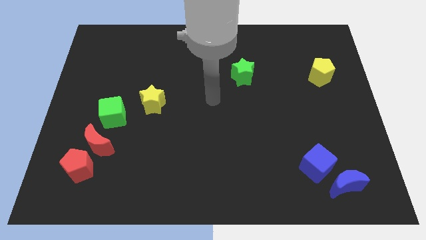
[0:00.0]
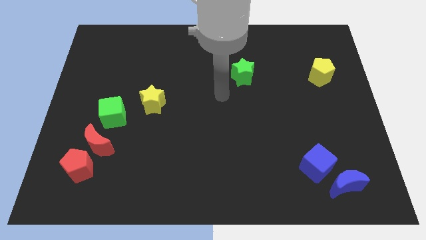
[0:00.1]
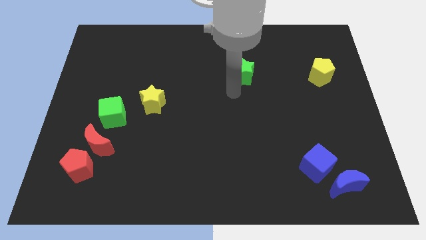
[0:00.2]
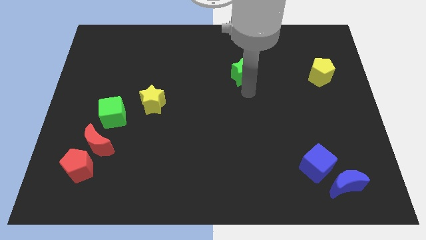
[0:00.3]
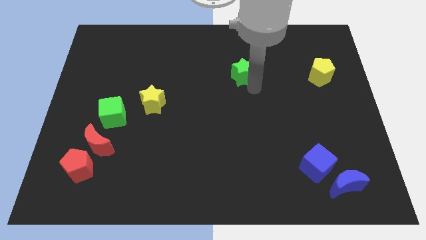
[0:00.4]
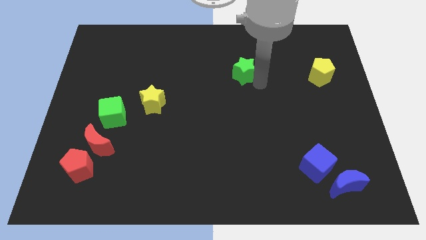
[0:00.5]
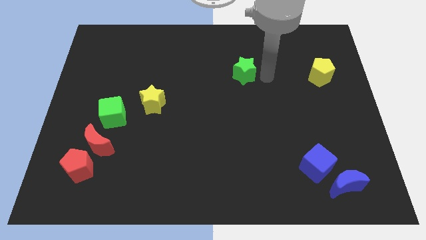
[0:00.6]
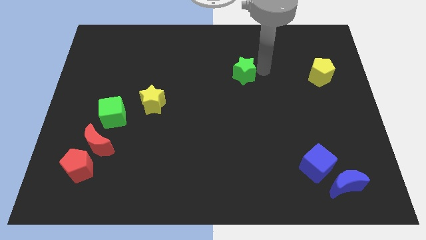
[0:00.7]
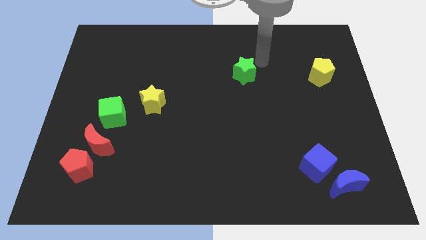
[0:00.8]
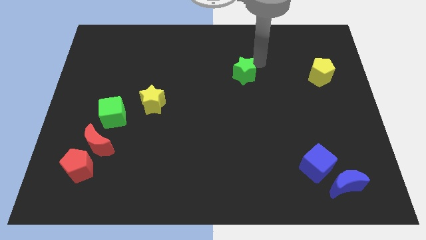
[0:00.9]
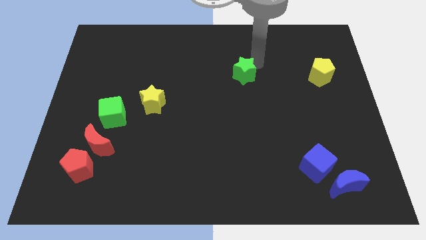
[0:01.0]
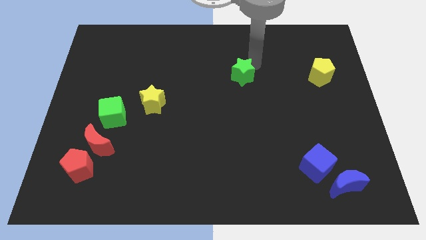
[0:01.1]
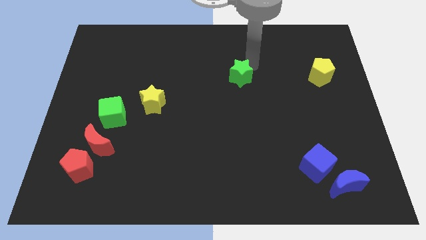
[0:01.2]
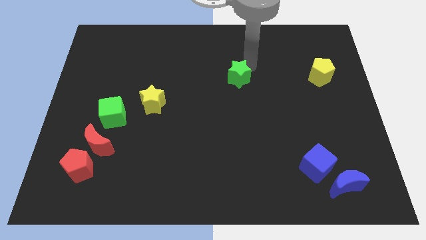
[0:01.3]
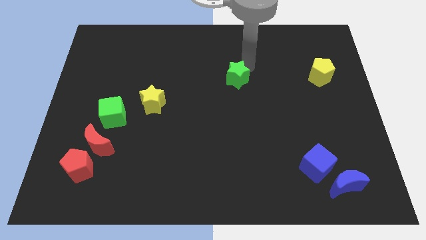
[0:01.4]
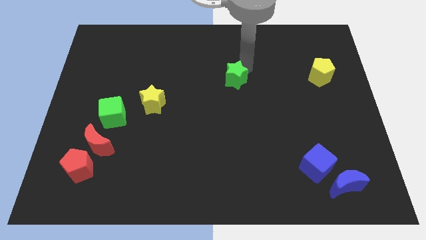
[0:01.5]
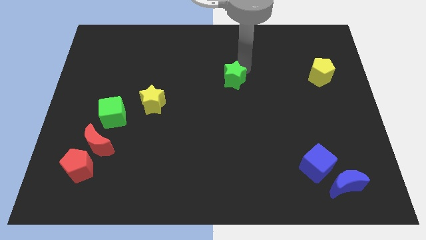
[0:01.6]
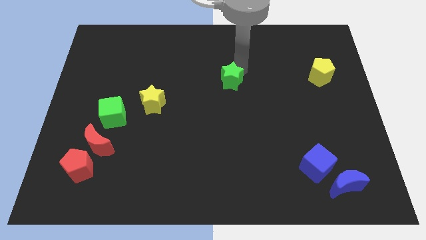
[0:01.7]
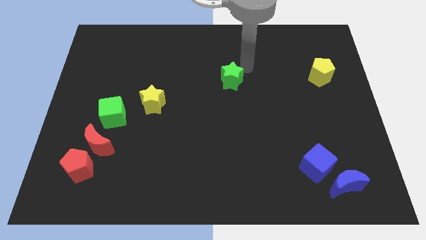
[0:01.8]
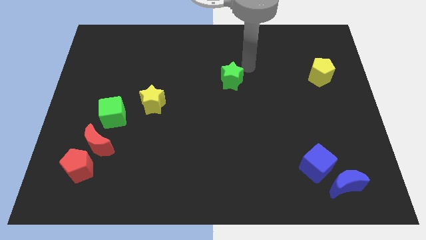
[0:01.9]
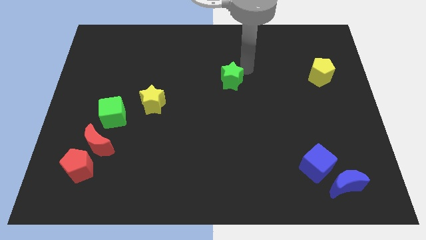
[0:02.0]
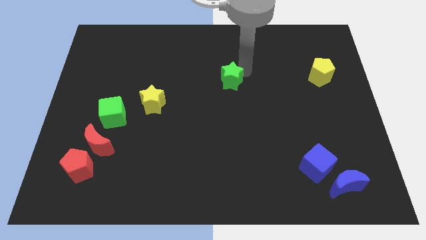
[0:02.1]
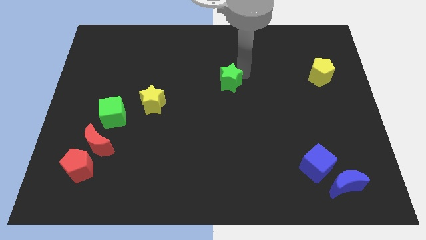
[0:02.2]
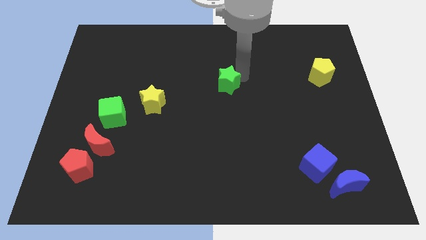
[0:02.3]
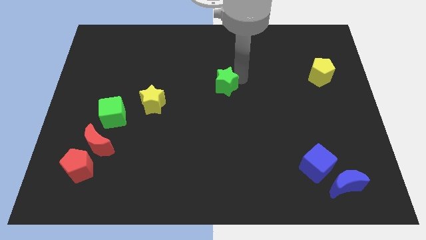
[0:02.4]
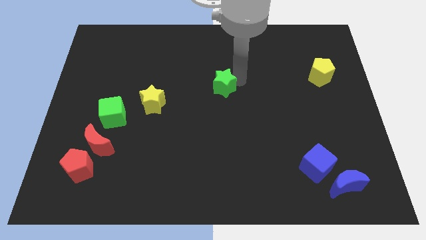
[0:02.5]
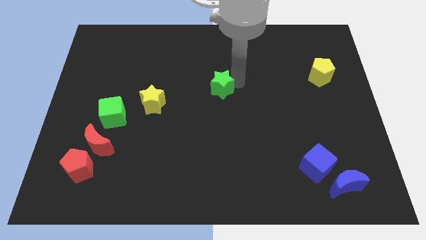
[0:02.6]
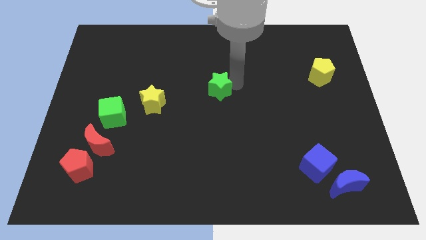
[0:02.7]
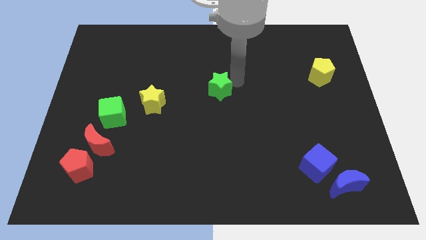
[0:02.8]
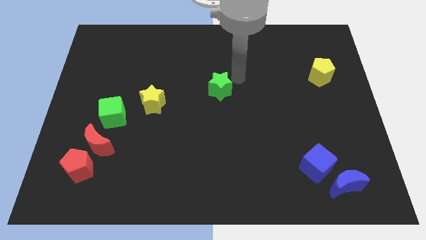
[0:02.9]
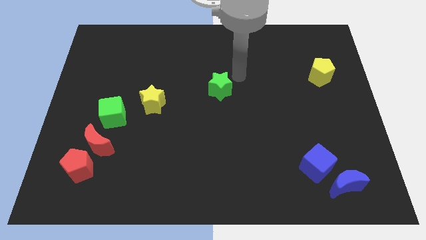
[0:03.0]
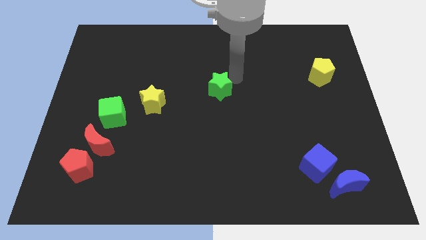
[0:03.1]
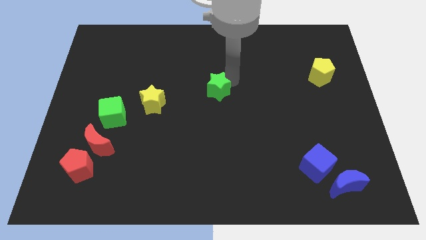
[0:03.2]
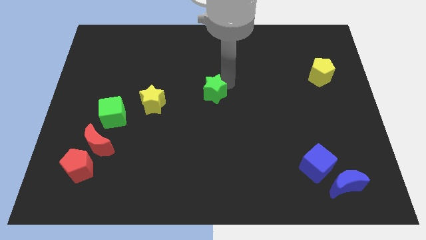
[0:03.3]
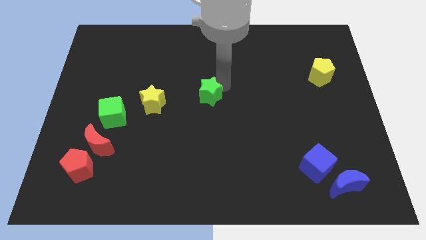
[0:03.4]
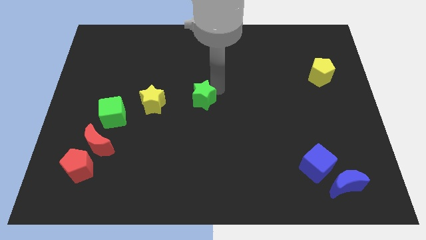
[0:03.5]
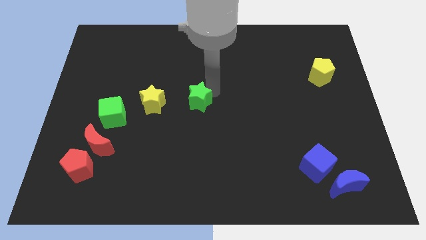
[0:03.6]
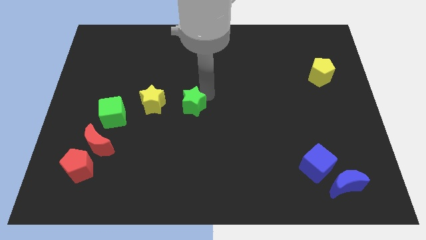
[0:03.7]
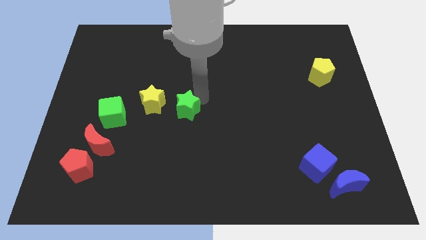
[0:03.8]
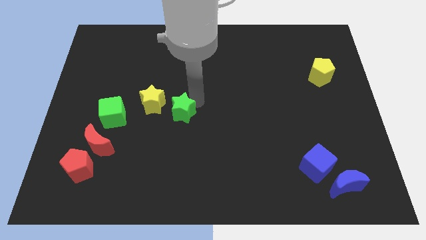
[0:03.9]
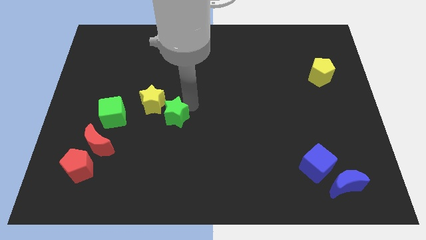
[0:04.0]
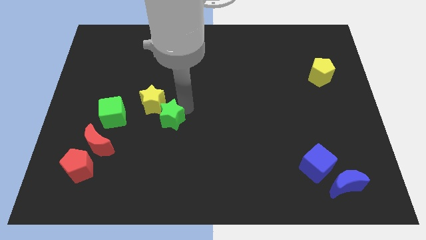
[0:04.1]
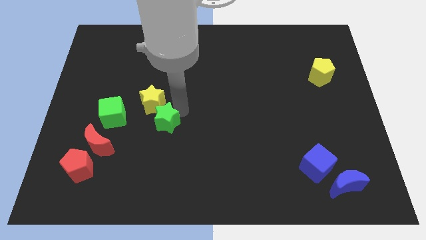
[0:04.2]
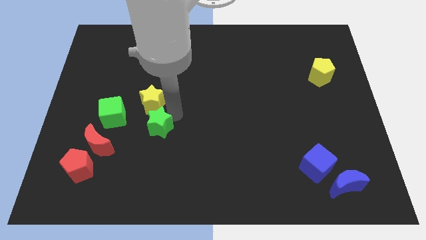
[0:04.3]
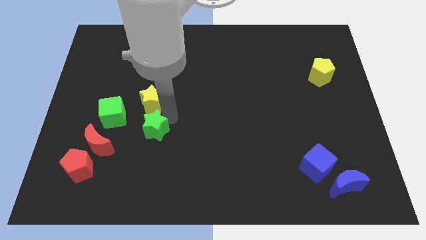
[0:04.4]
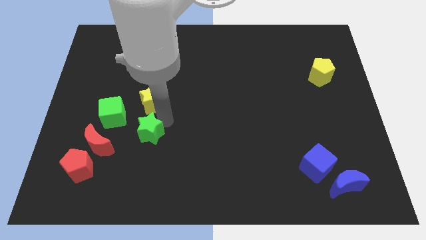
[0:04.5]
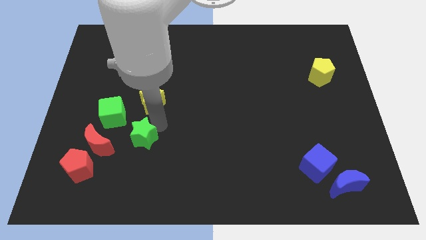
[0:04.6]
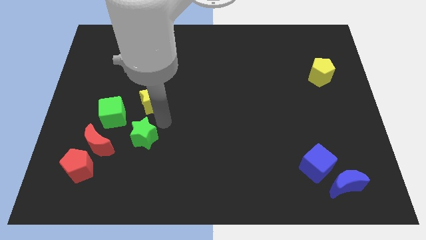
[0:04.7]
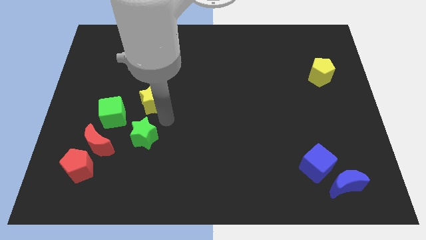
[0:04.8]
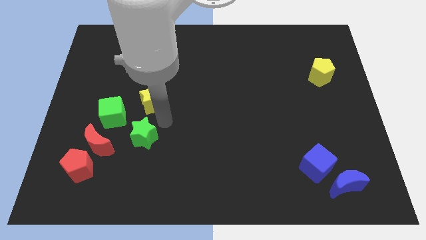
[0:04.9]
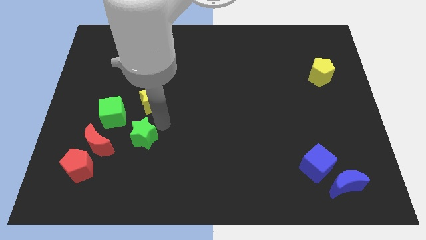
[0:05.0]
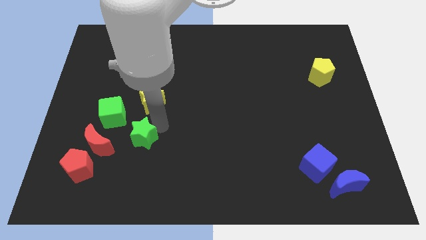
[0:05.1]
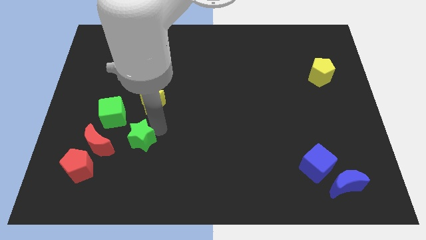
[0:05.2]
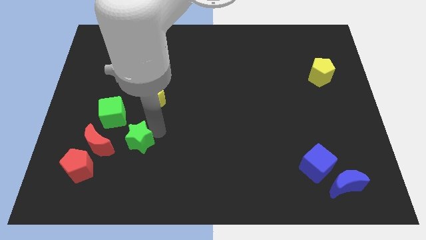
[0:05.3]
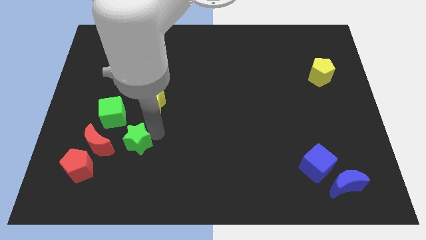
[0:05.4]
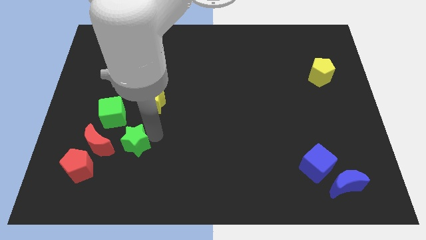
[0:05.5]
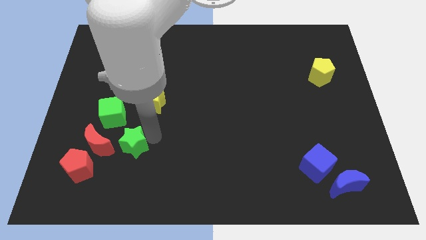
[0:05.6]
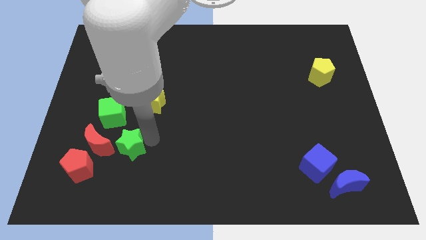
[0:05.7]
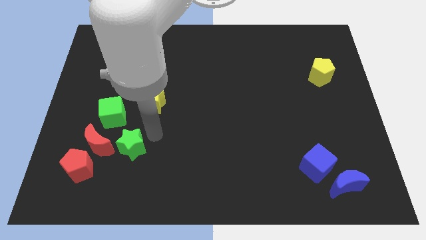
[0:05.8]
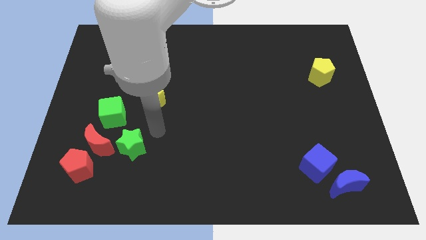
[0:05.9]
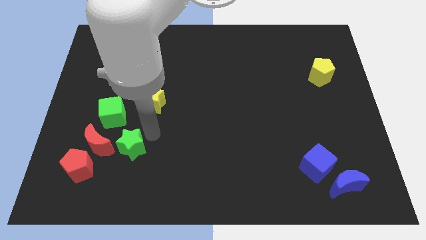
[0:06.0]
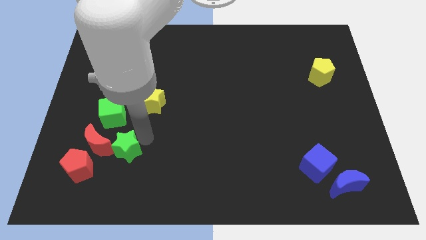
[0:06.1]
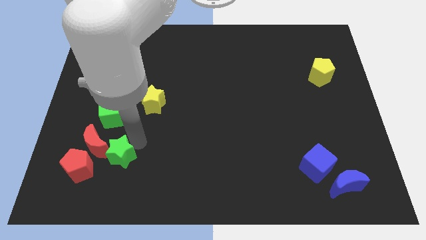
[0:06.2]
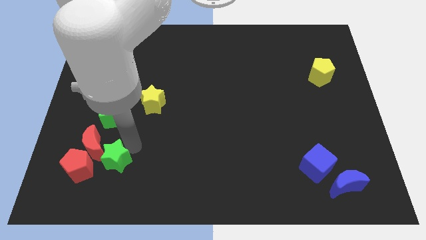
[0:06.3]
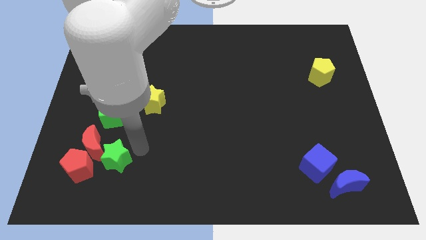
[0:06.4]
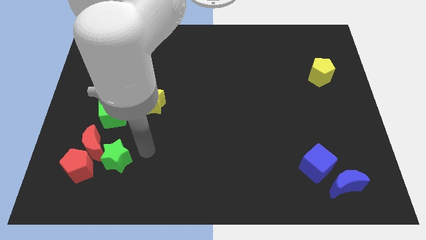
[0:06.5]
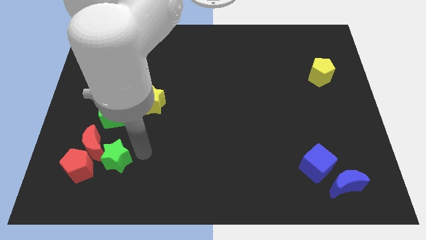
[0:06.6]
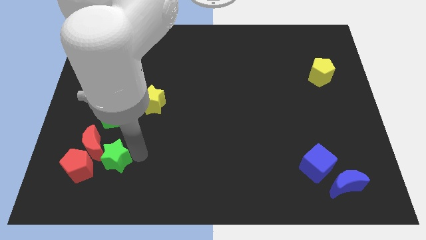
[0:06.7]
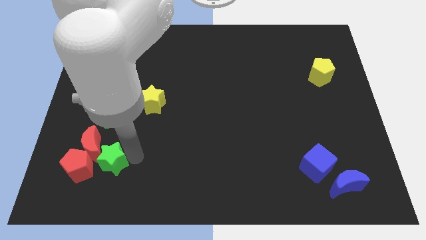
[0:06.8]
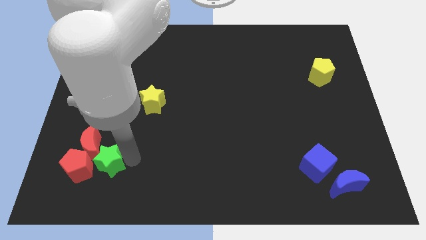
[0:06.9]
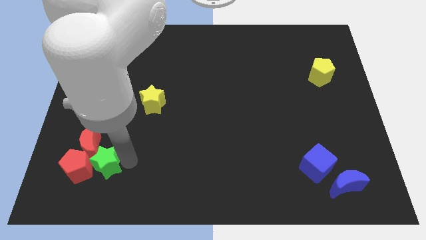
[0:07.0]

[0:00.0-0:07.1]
move the green star close to the red pentagon
